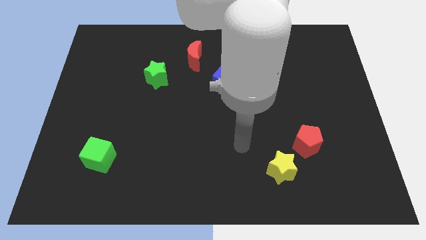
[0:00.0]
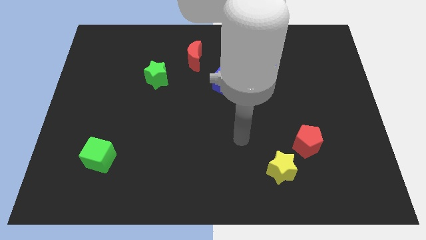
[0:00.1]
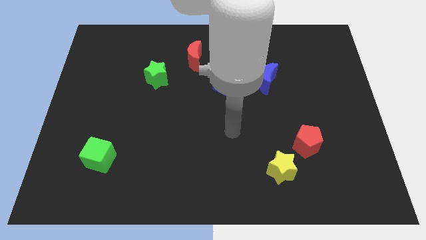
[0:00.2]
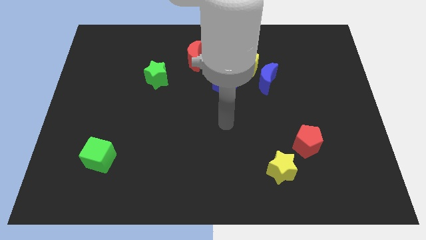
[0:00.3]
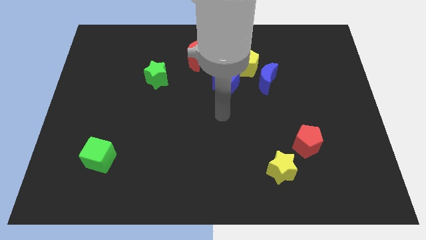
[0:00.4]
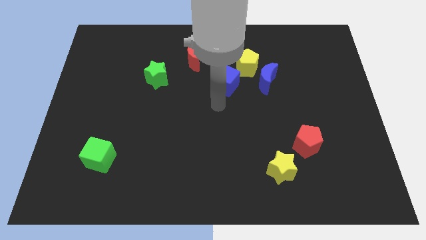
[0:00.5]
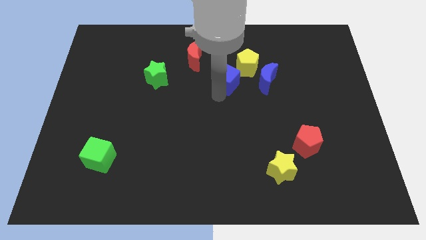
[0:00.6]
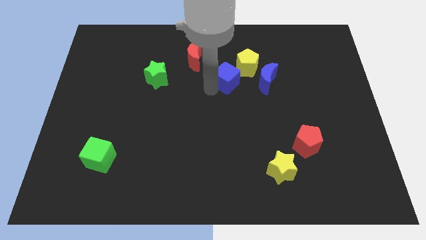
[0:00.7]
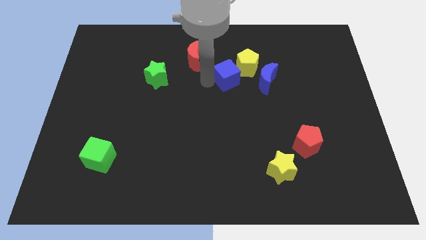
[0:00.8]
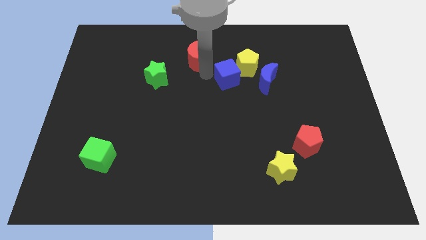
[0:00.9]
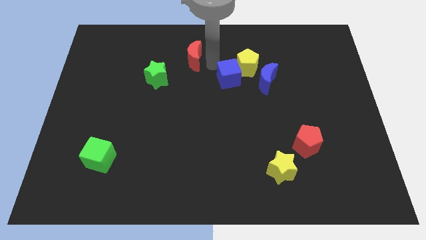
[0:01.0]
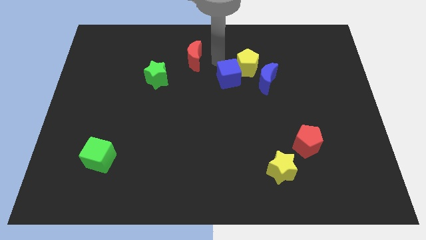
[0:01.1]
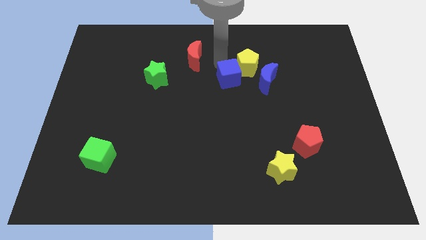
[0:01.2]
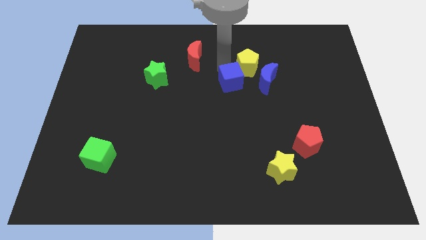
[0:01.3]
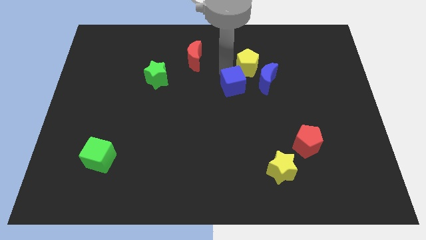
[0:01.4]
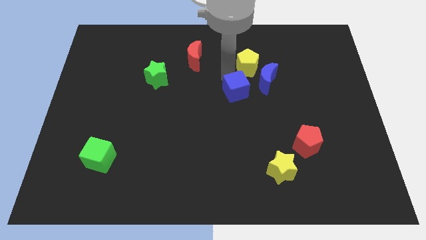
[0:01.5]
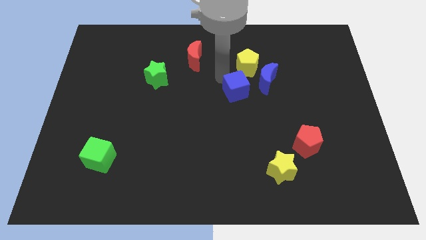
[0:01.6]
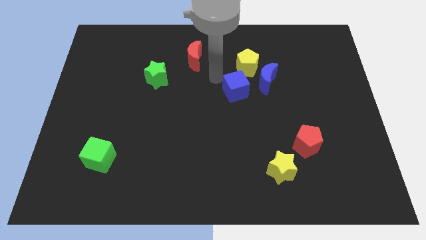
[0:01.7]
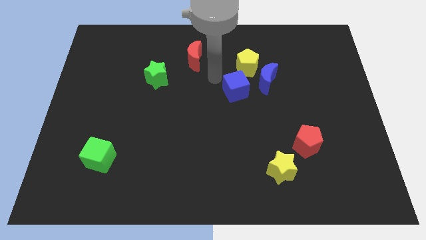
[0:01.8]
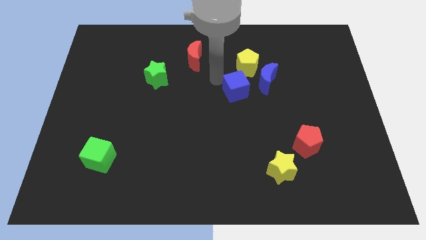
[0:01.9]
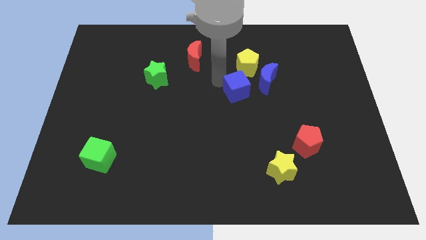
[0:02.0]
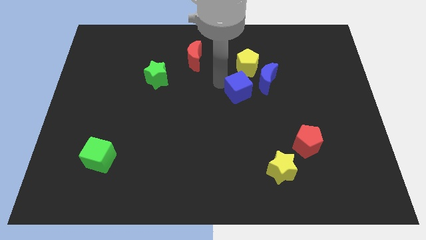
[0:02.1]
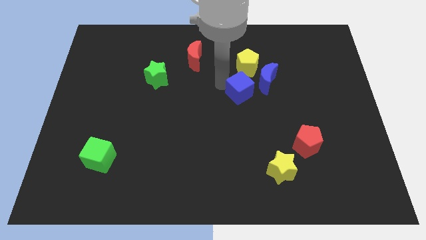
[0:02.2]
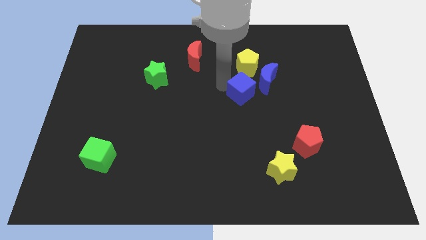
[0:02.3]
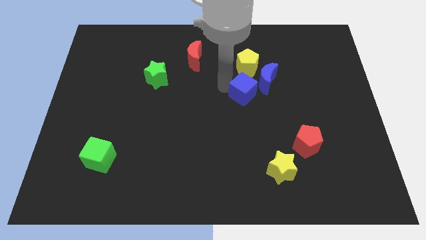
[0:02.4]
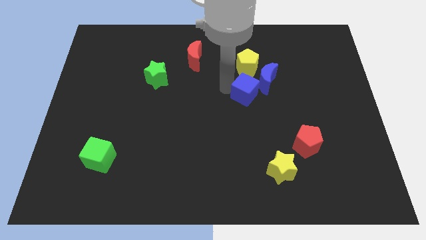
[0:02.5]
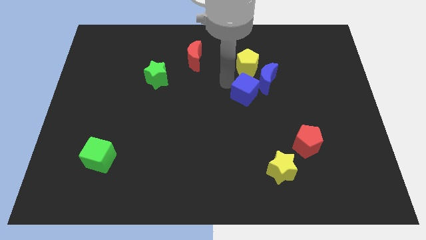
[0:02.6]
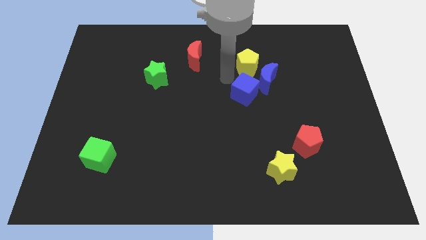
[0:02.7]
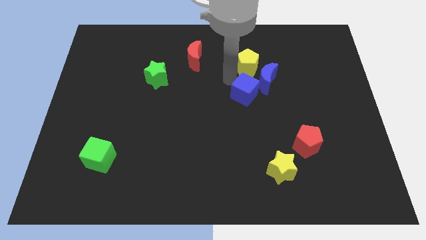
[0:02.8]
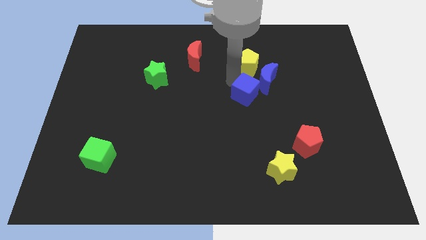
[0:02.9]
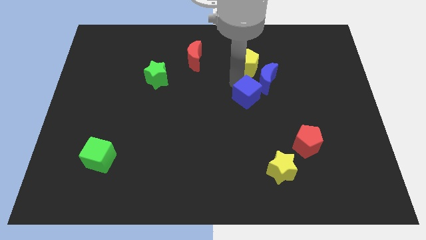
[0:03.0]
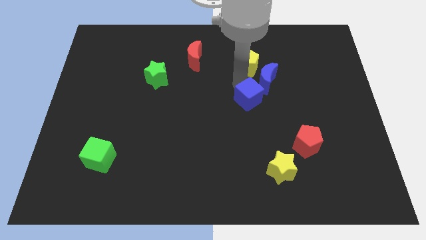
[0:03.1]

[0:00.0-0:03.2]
push the blue cube down and then right somewhat

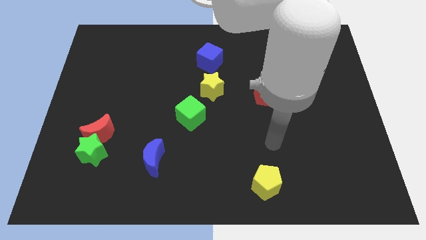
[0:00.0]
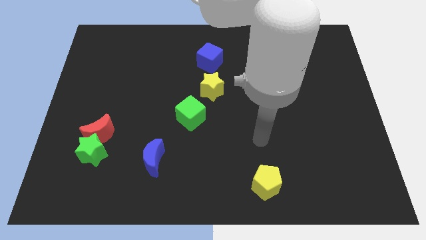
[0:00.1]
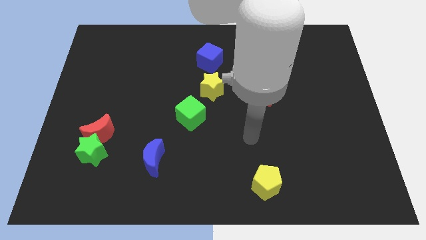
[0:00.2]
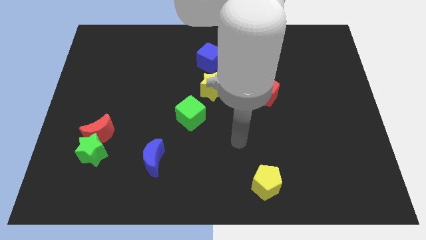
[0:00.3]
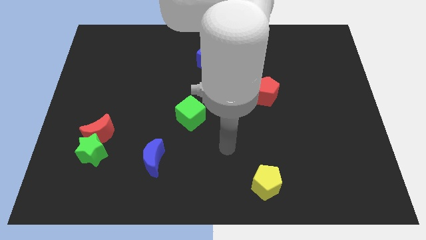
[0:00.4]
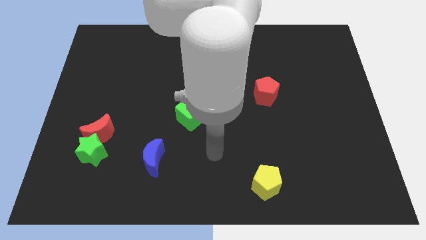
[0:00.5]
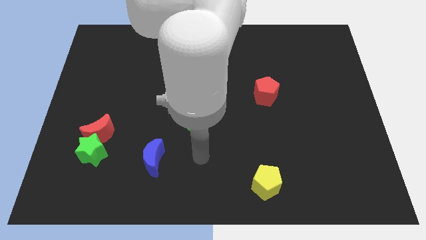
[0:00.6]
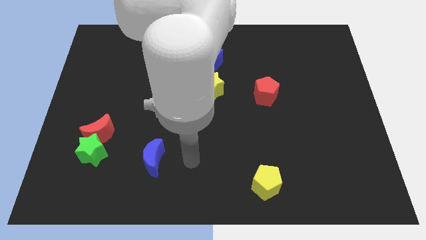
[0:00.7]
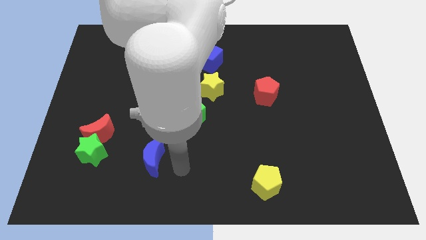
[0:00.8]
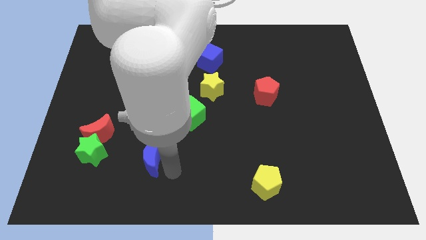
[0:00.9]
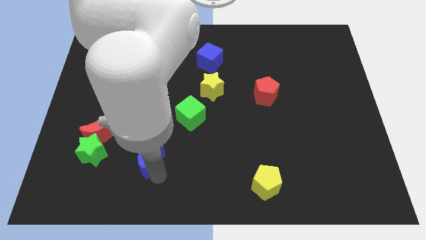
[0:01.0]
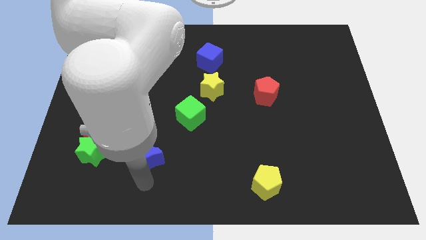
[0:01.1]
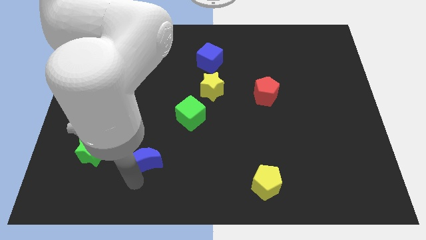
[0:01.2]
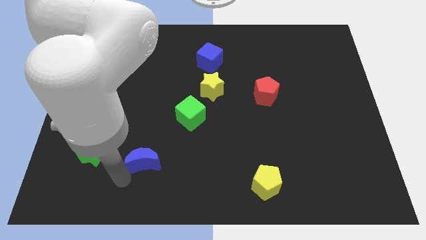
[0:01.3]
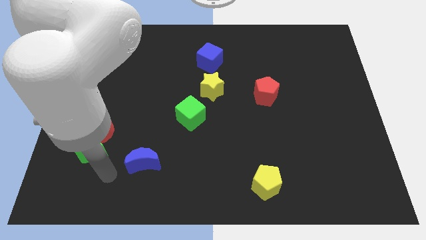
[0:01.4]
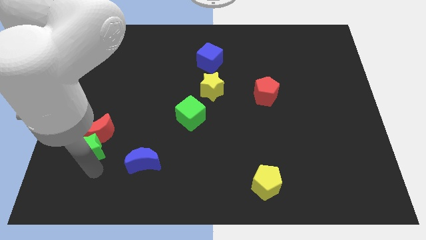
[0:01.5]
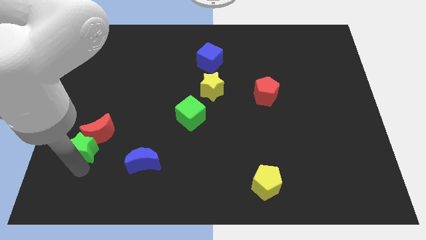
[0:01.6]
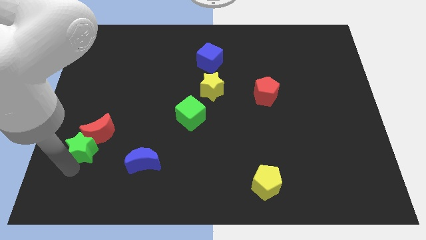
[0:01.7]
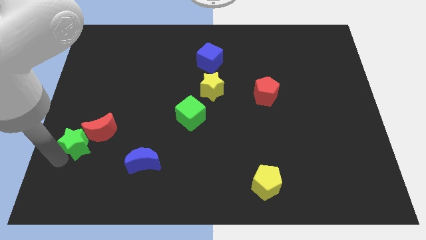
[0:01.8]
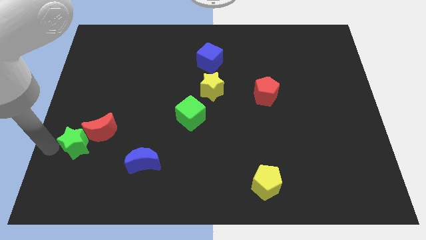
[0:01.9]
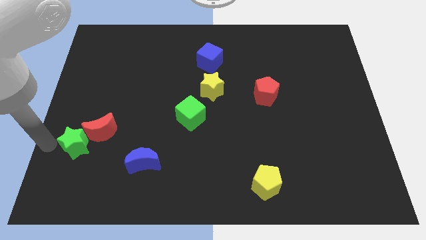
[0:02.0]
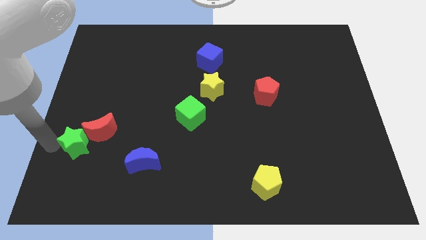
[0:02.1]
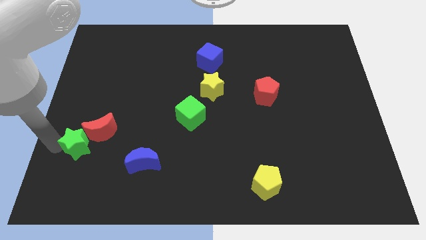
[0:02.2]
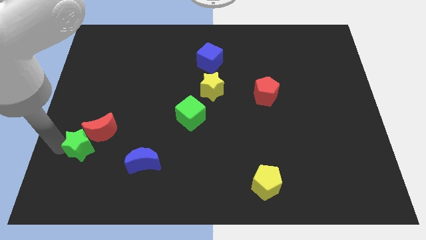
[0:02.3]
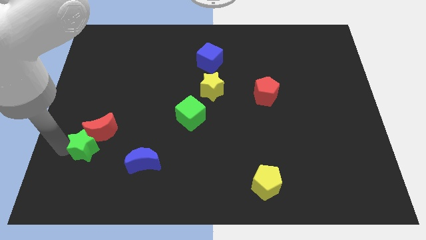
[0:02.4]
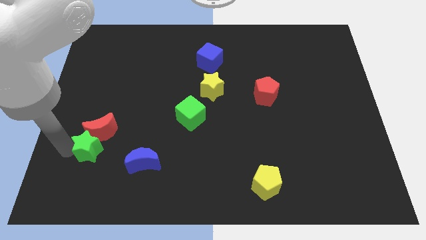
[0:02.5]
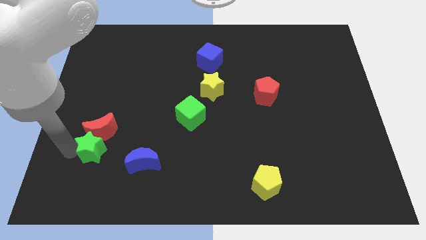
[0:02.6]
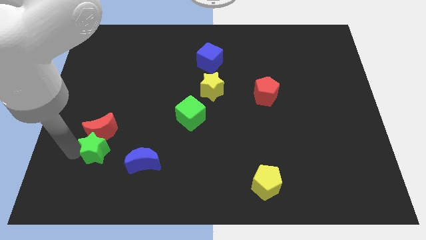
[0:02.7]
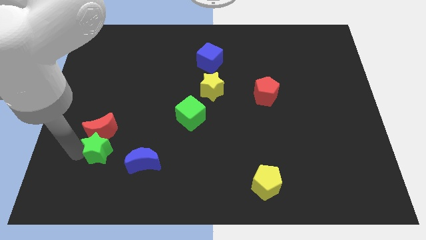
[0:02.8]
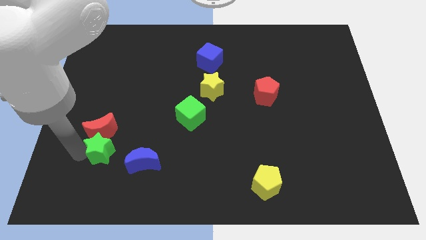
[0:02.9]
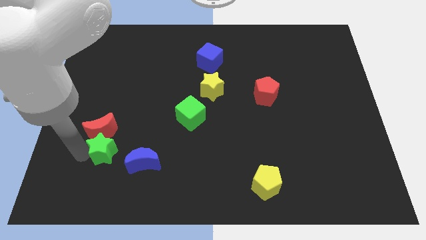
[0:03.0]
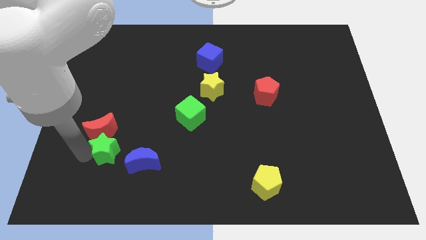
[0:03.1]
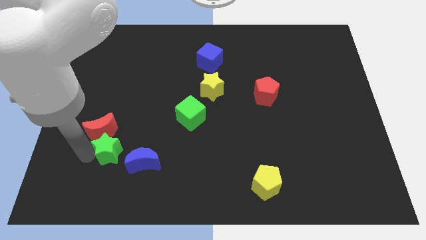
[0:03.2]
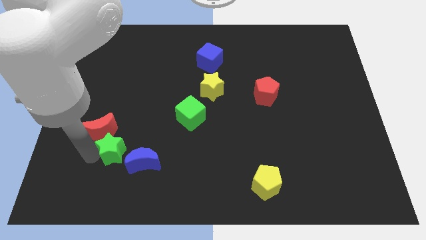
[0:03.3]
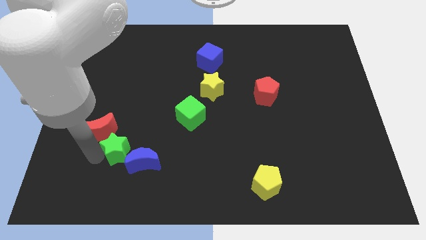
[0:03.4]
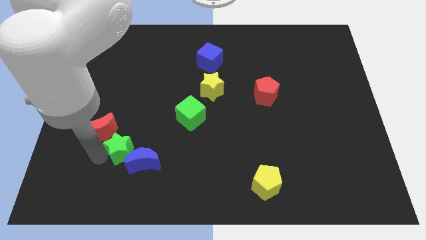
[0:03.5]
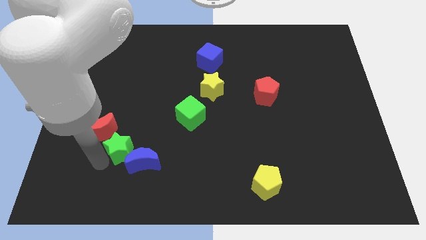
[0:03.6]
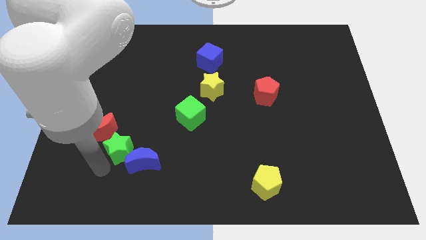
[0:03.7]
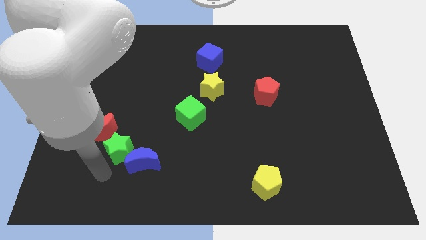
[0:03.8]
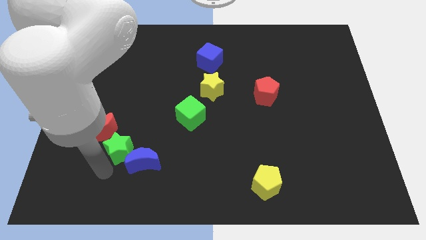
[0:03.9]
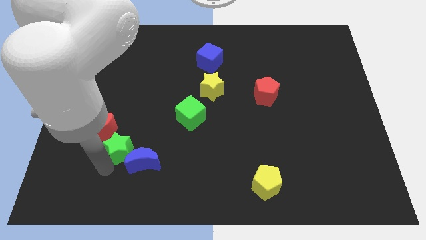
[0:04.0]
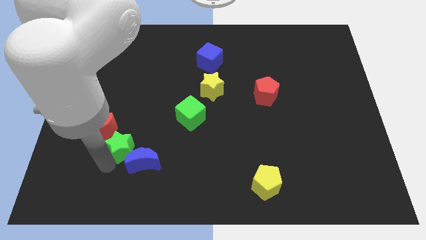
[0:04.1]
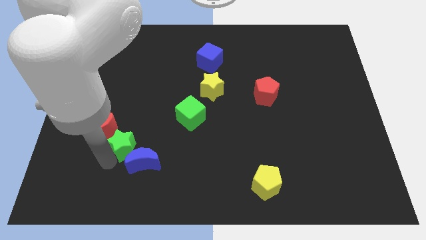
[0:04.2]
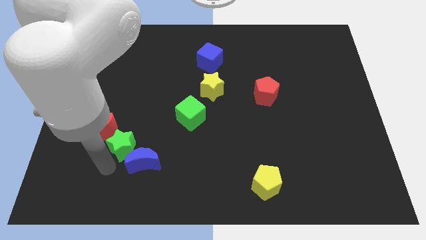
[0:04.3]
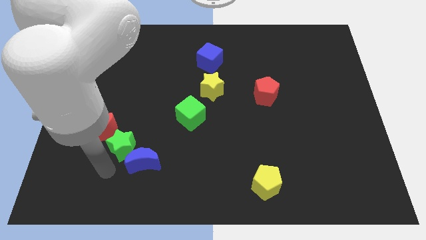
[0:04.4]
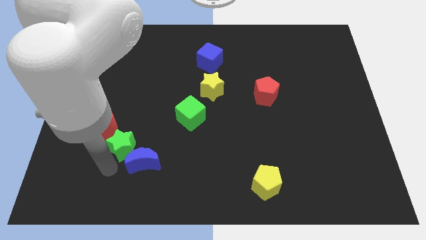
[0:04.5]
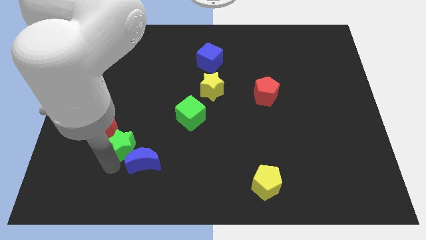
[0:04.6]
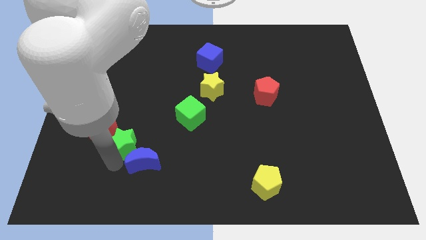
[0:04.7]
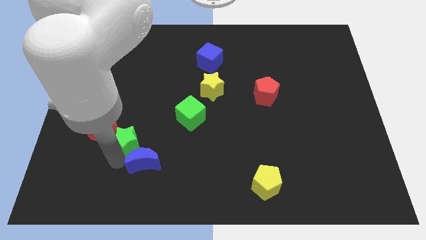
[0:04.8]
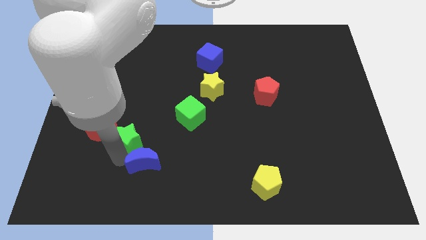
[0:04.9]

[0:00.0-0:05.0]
slightly slide the green star up and then right
